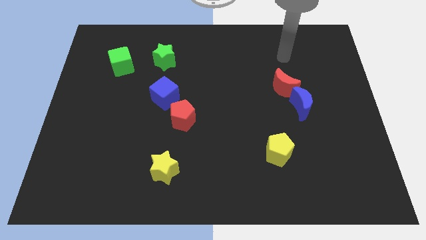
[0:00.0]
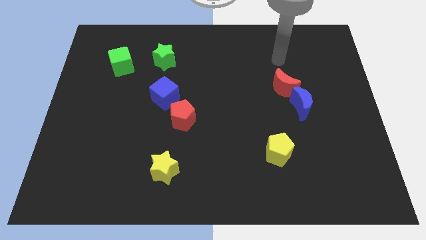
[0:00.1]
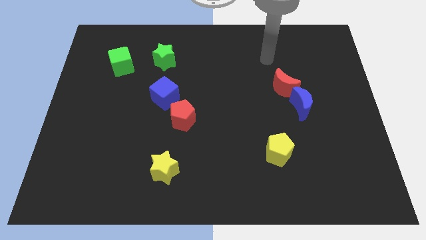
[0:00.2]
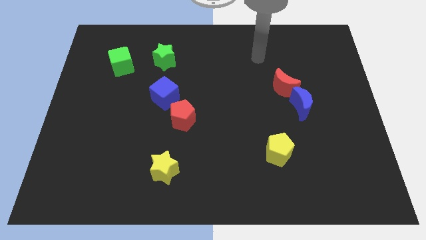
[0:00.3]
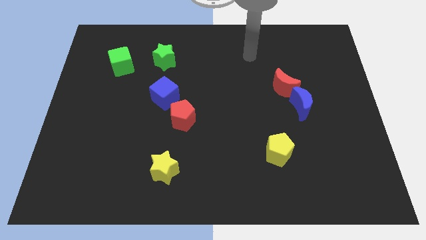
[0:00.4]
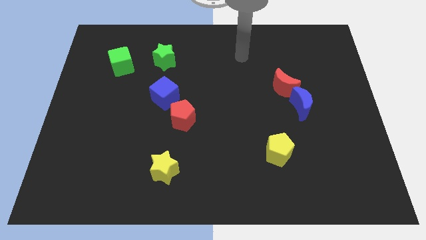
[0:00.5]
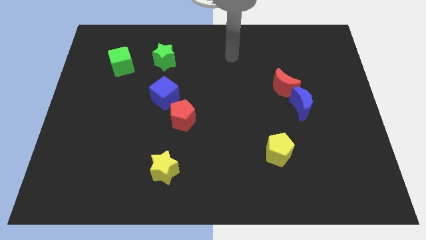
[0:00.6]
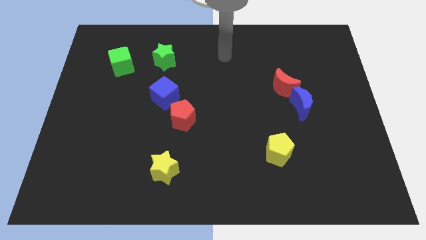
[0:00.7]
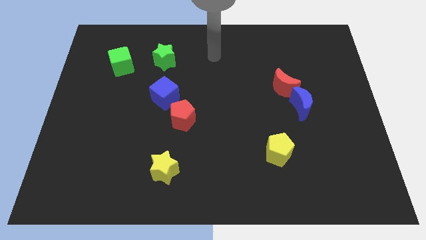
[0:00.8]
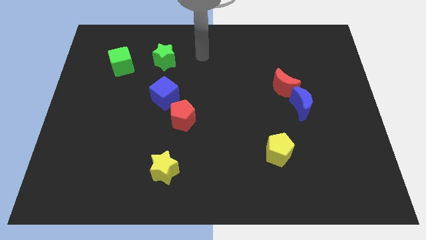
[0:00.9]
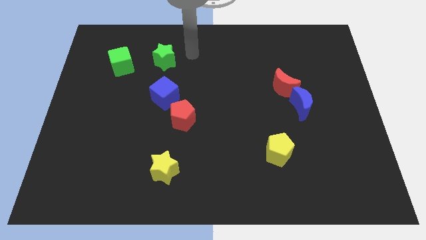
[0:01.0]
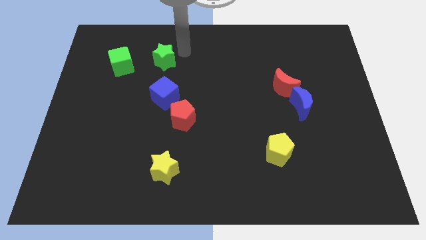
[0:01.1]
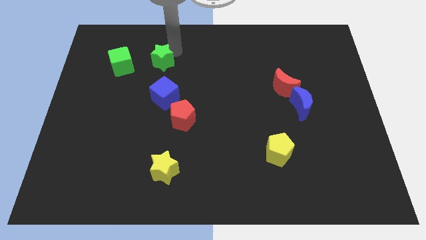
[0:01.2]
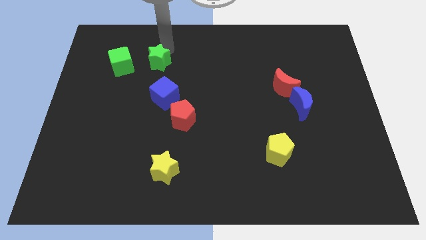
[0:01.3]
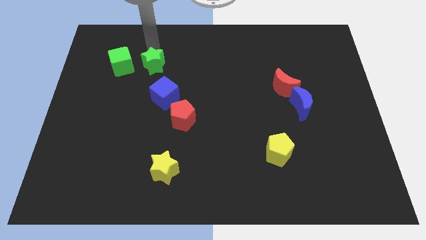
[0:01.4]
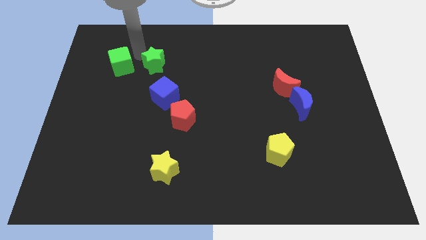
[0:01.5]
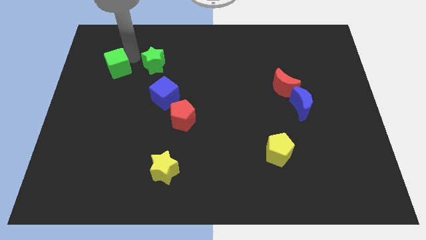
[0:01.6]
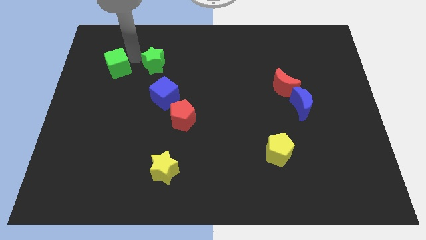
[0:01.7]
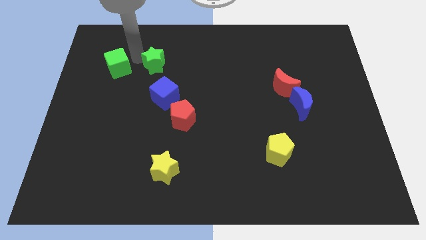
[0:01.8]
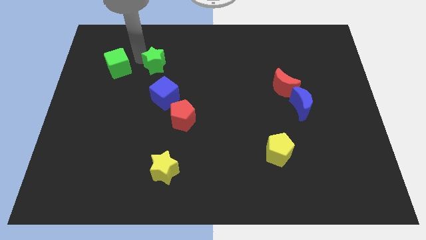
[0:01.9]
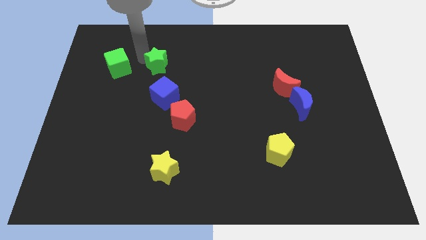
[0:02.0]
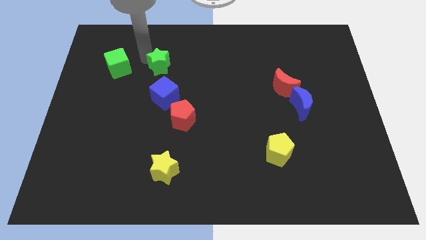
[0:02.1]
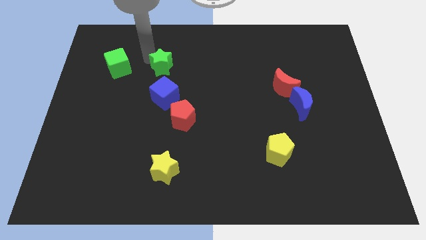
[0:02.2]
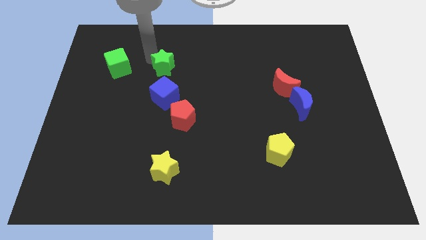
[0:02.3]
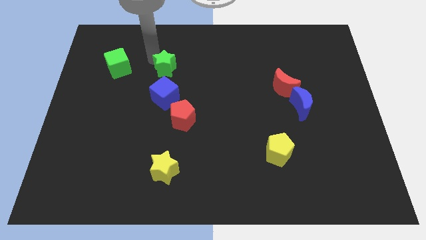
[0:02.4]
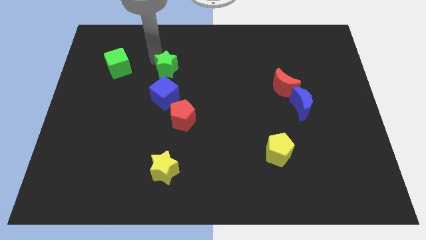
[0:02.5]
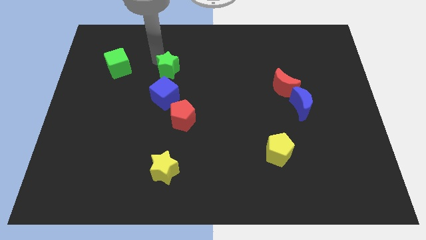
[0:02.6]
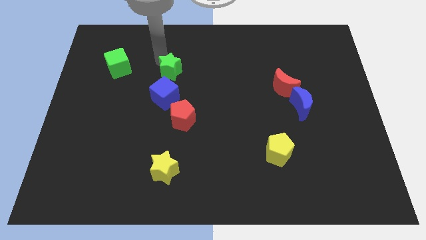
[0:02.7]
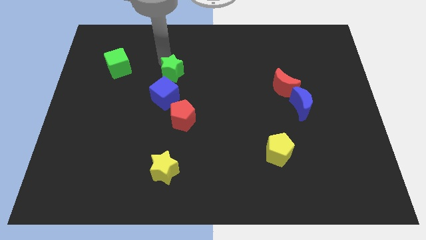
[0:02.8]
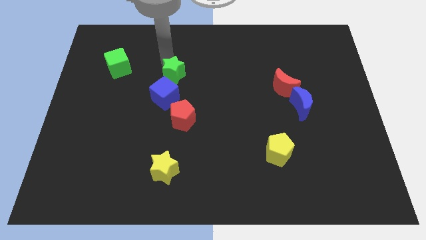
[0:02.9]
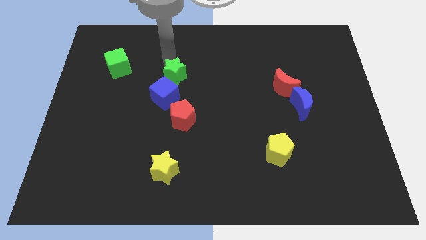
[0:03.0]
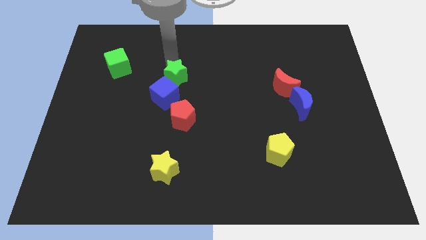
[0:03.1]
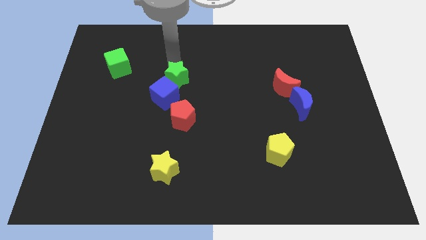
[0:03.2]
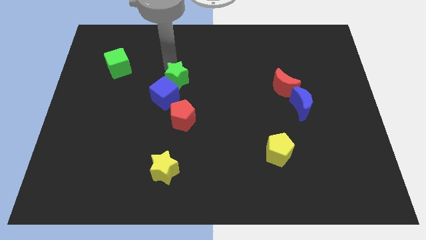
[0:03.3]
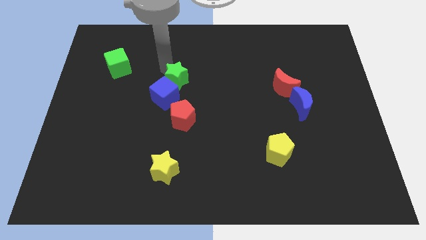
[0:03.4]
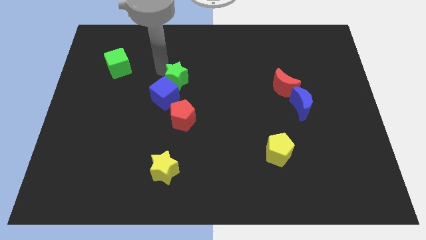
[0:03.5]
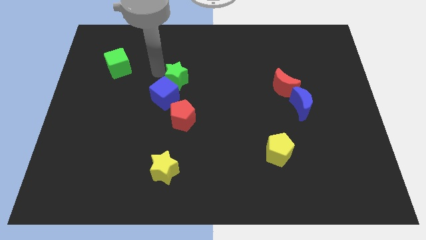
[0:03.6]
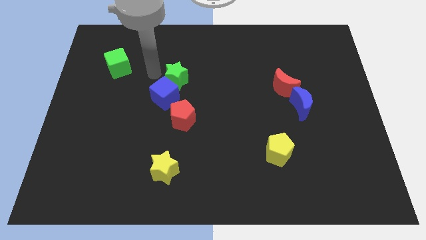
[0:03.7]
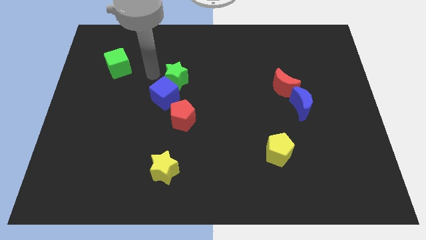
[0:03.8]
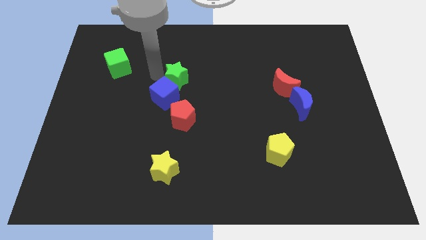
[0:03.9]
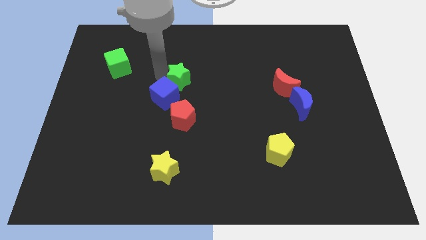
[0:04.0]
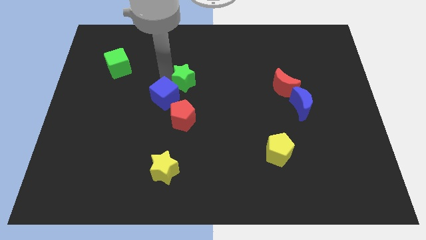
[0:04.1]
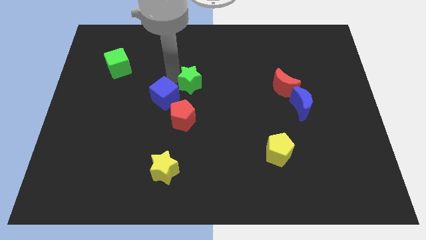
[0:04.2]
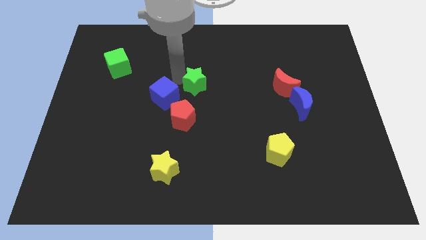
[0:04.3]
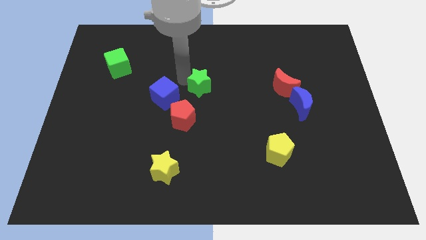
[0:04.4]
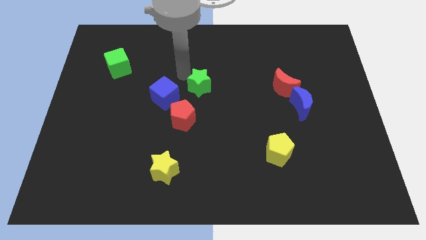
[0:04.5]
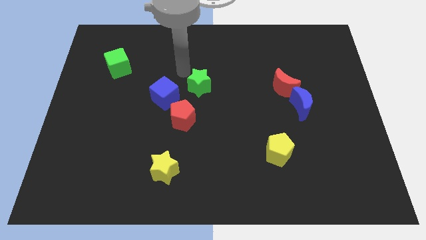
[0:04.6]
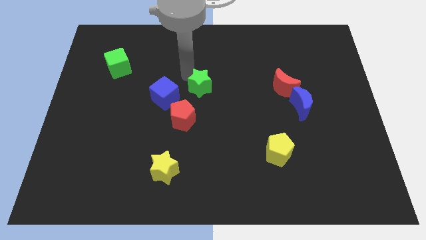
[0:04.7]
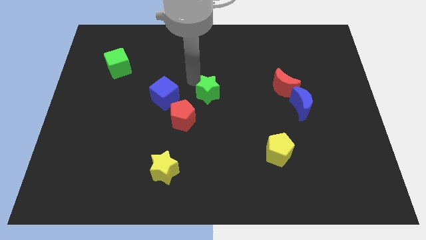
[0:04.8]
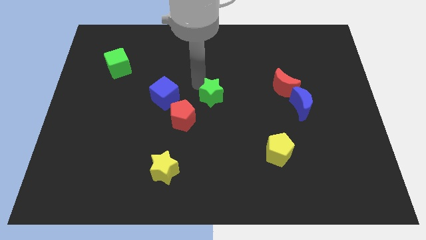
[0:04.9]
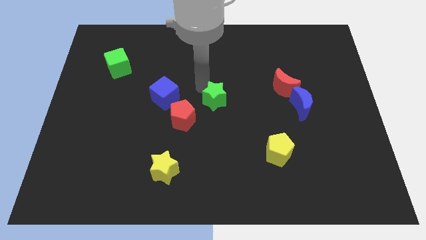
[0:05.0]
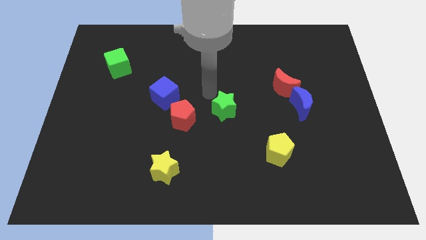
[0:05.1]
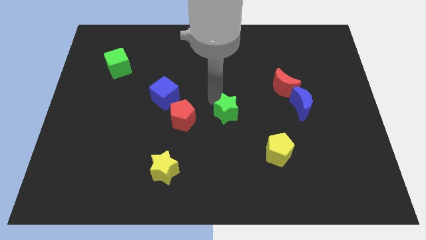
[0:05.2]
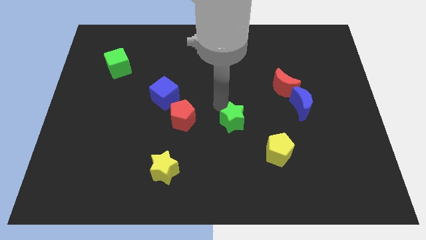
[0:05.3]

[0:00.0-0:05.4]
push the green star to the top left of the yellow pentagon

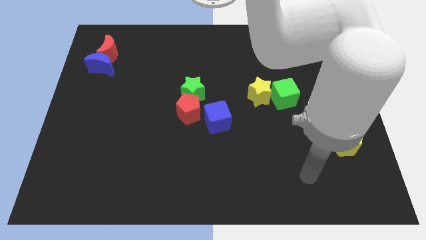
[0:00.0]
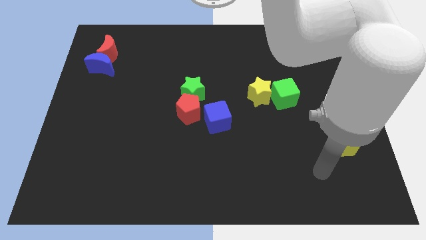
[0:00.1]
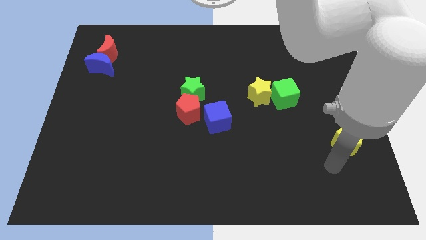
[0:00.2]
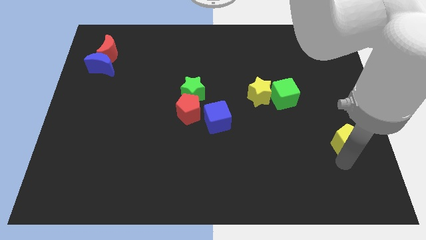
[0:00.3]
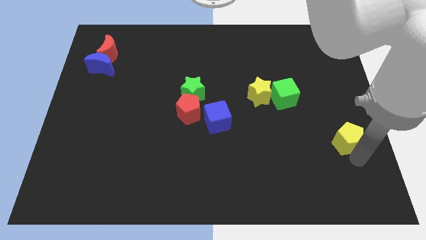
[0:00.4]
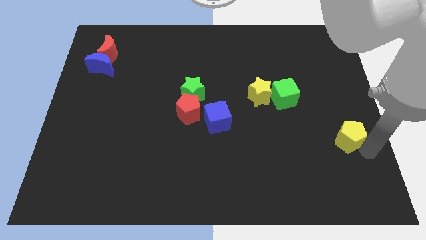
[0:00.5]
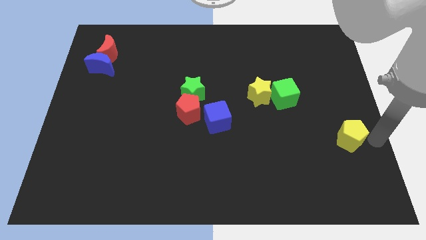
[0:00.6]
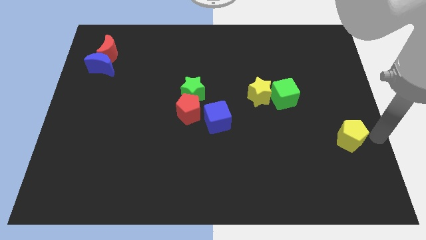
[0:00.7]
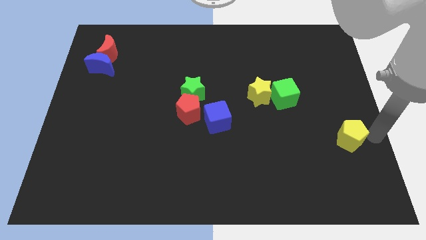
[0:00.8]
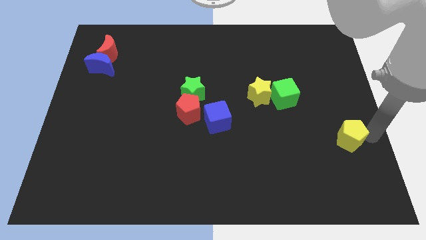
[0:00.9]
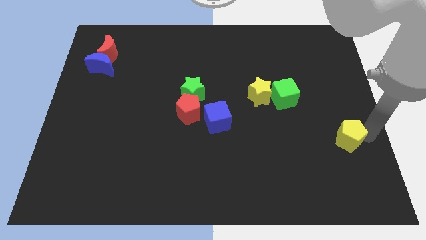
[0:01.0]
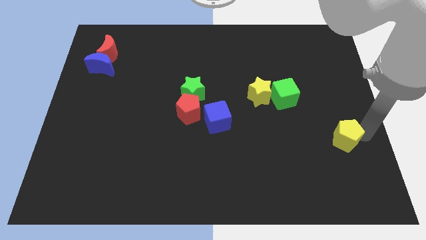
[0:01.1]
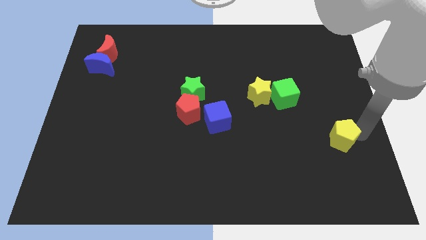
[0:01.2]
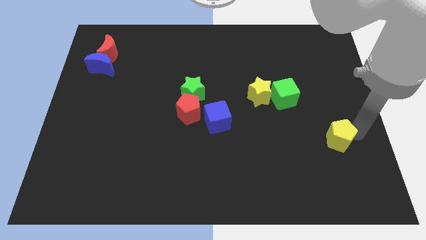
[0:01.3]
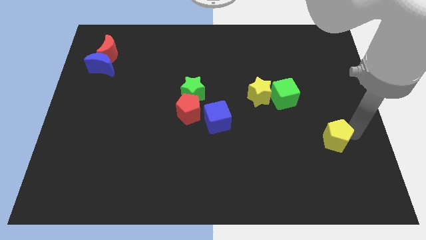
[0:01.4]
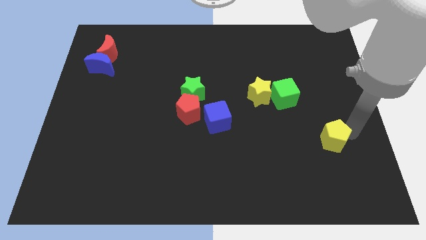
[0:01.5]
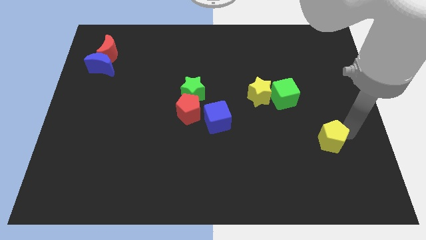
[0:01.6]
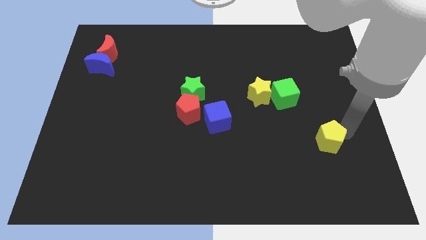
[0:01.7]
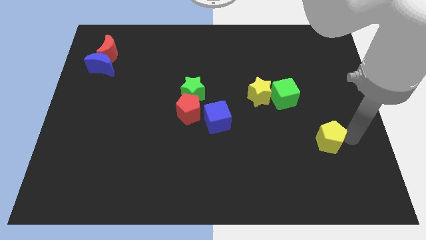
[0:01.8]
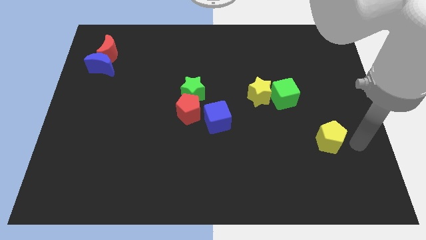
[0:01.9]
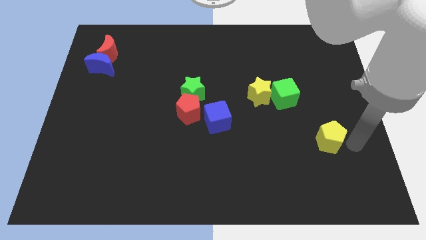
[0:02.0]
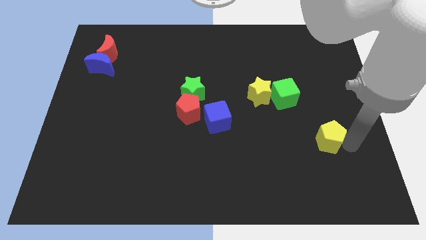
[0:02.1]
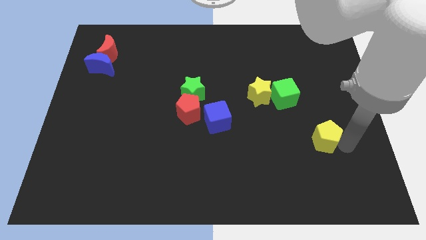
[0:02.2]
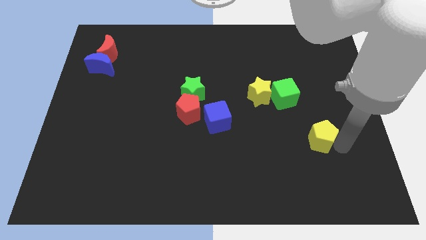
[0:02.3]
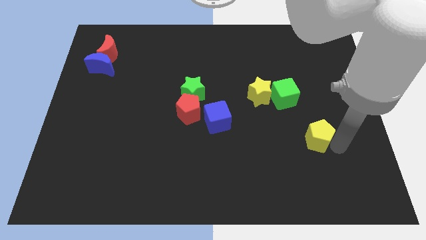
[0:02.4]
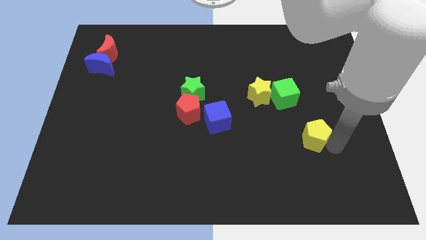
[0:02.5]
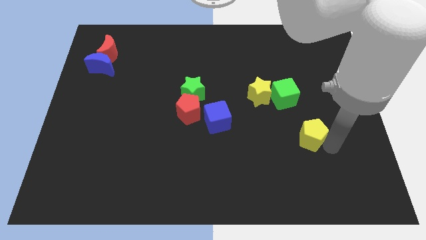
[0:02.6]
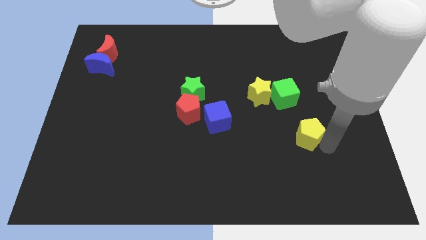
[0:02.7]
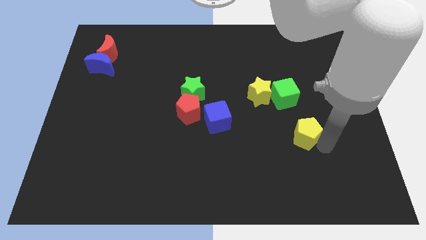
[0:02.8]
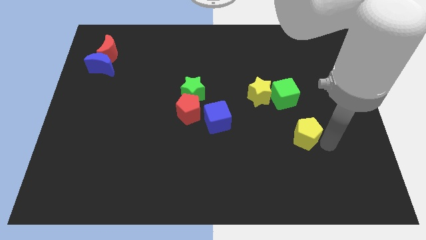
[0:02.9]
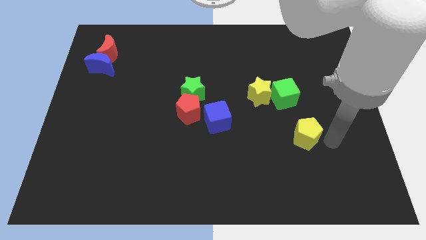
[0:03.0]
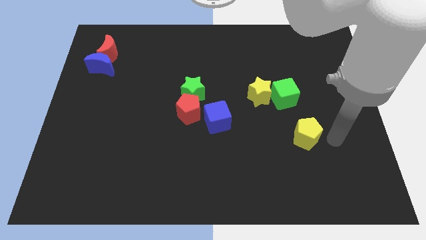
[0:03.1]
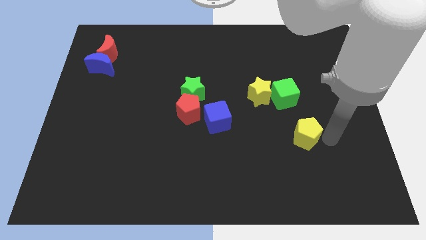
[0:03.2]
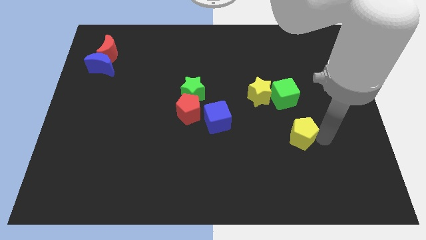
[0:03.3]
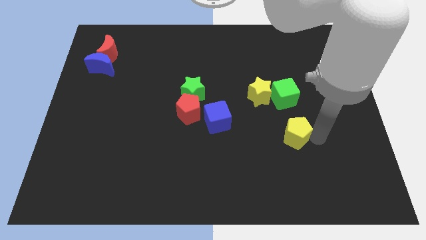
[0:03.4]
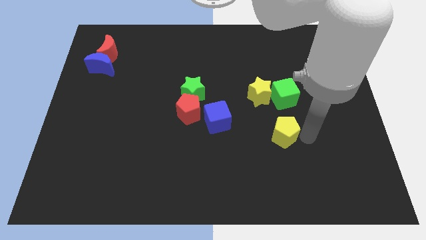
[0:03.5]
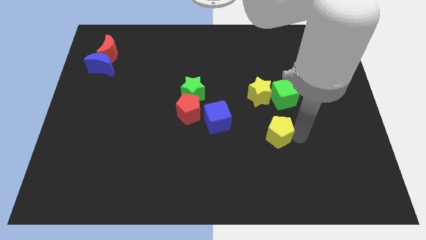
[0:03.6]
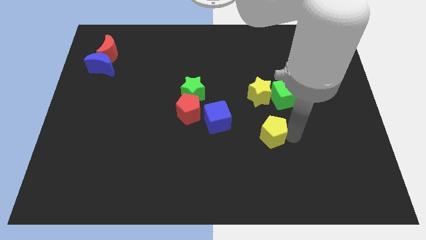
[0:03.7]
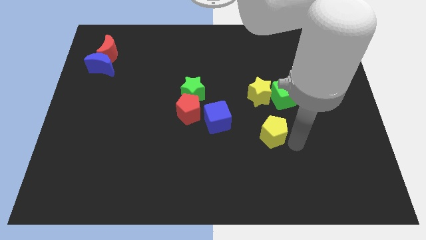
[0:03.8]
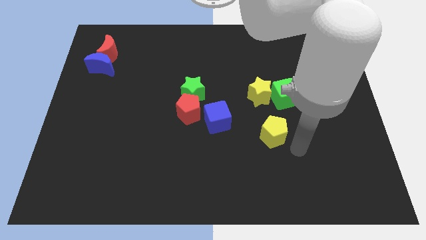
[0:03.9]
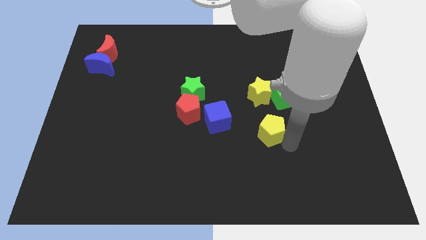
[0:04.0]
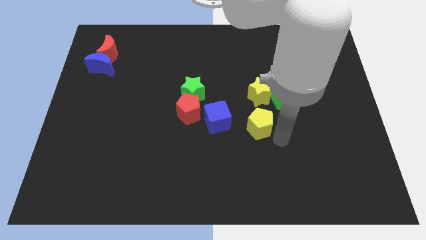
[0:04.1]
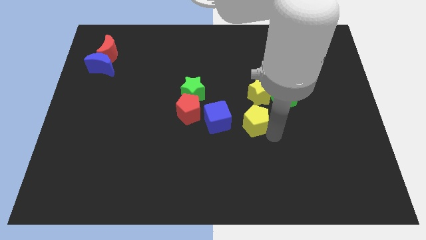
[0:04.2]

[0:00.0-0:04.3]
slide the yellow pentagon to the right of the red pentagon
